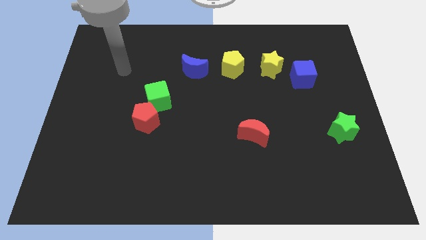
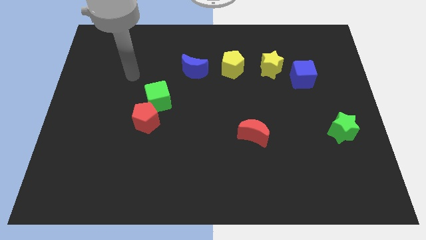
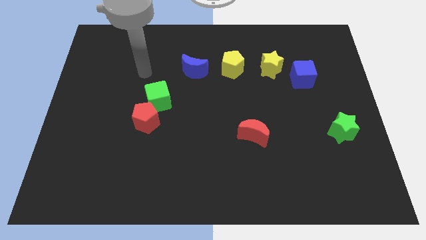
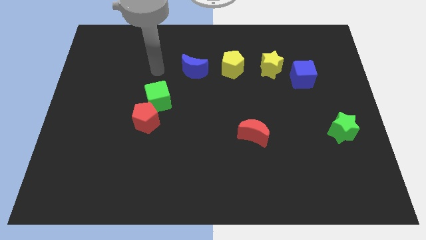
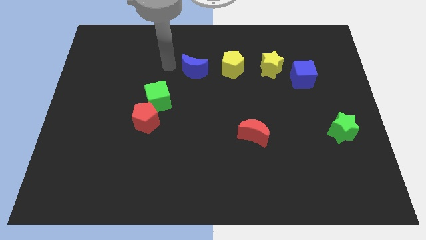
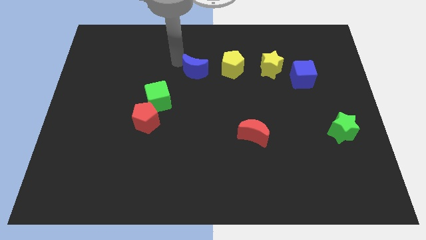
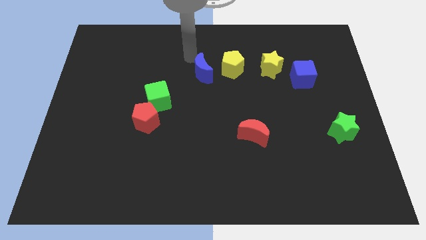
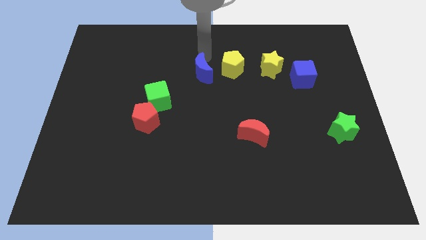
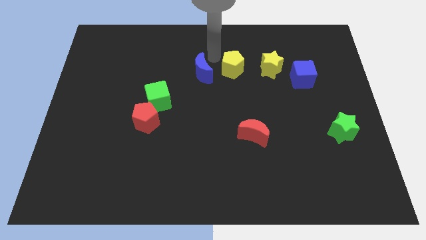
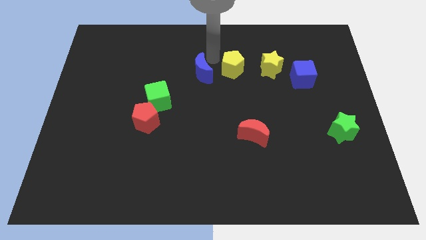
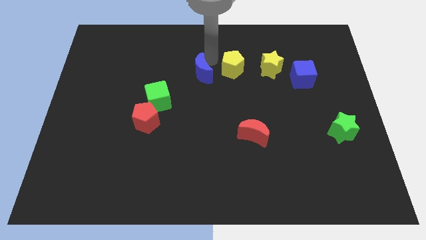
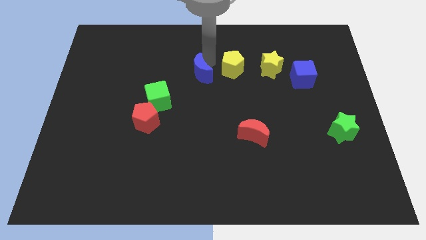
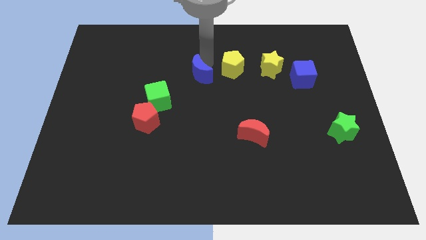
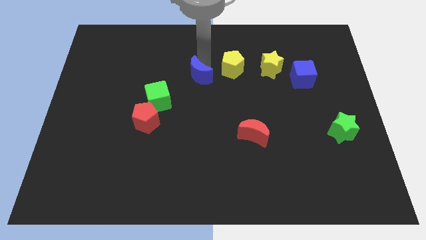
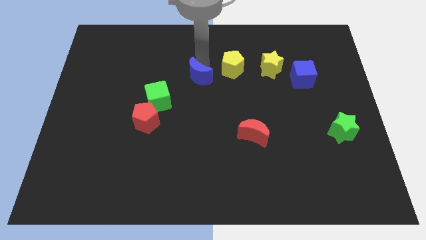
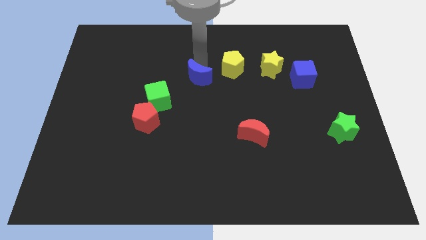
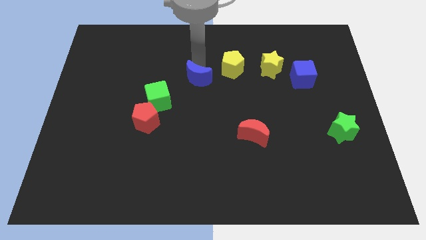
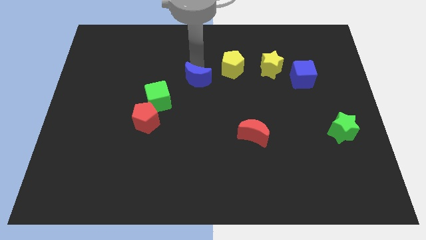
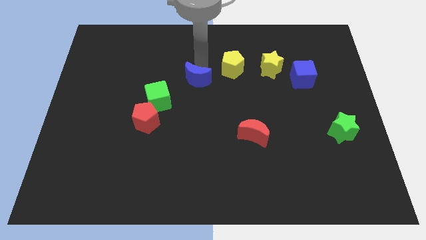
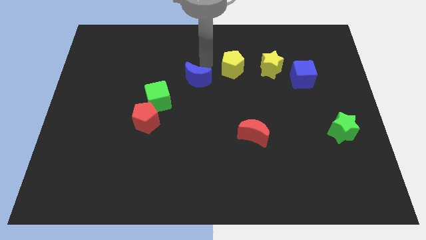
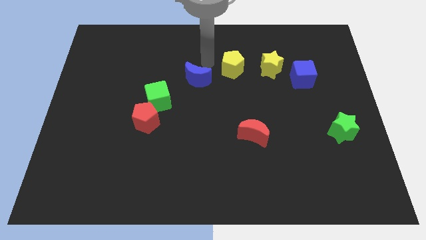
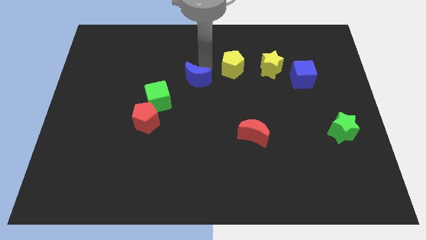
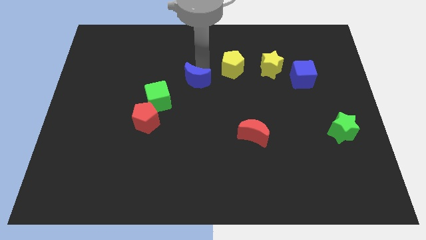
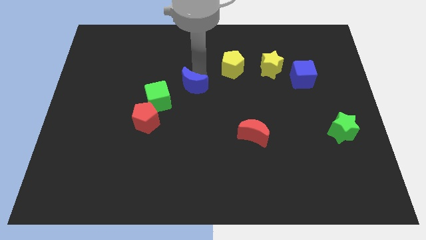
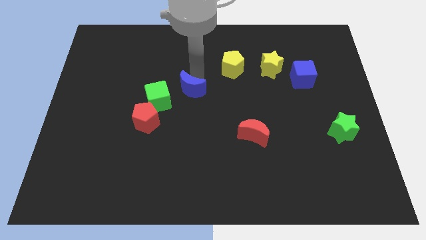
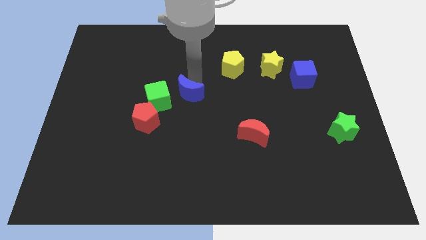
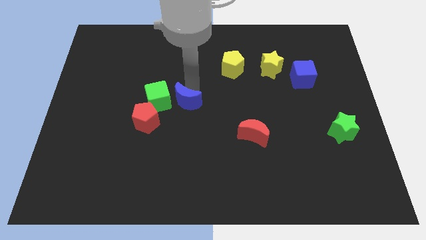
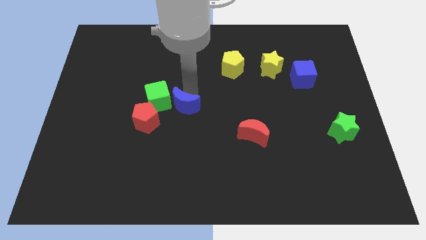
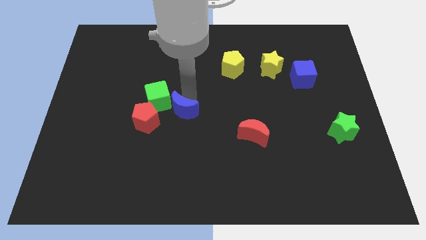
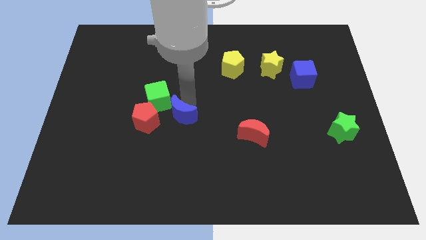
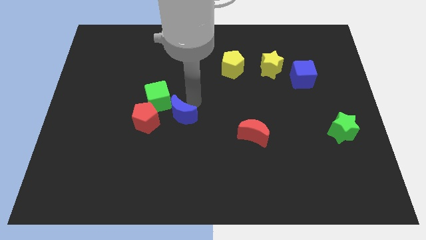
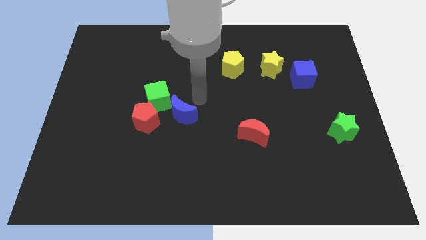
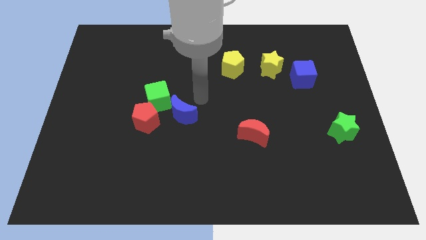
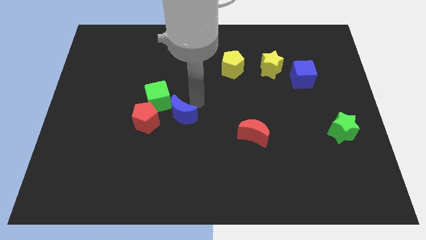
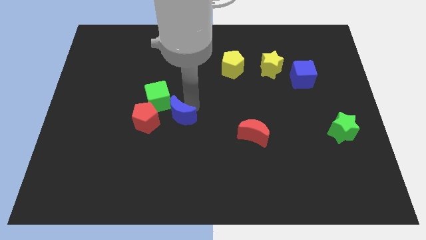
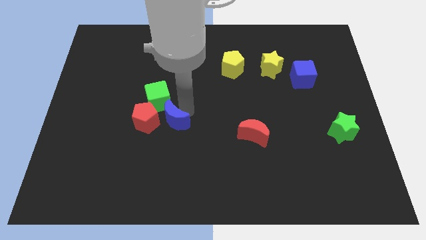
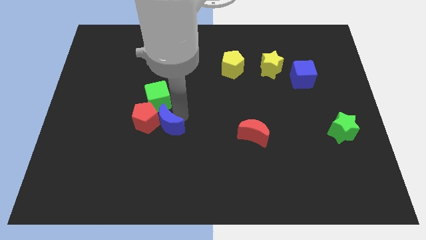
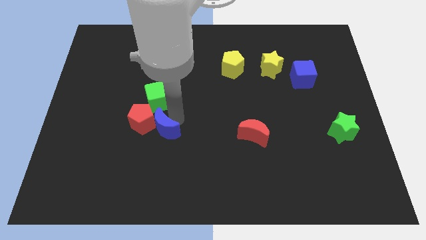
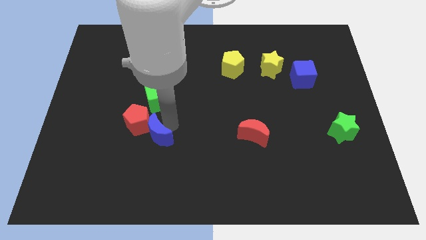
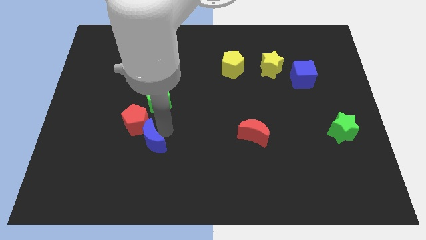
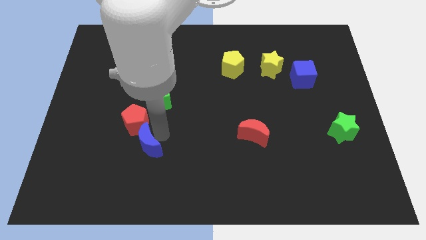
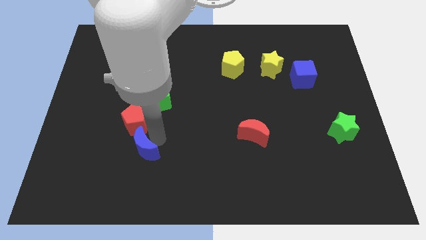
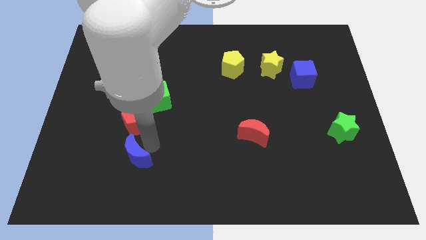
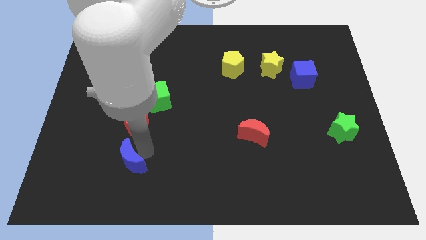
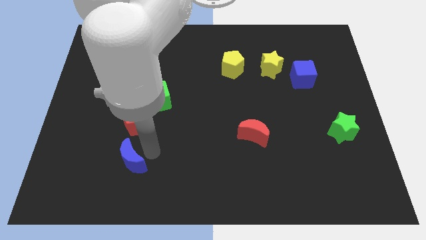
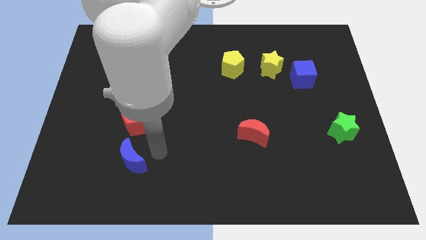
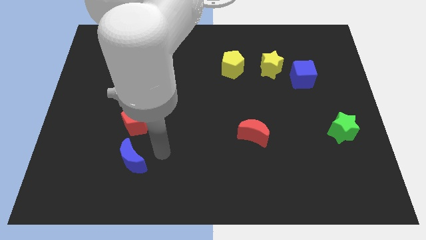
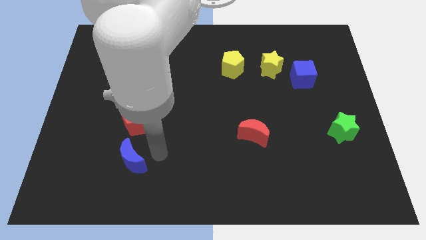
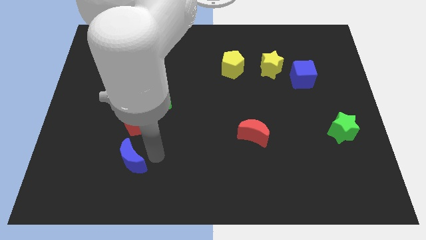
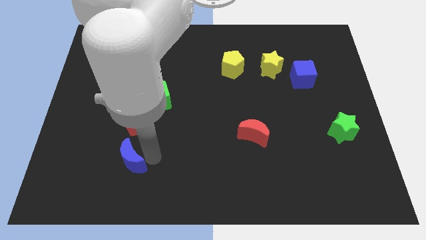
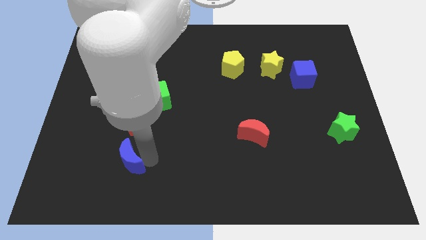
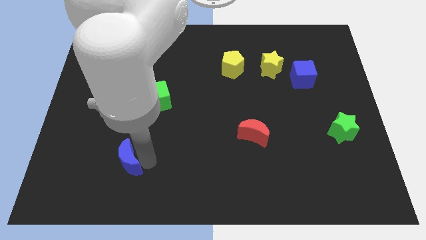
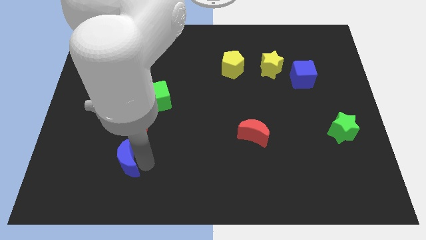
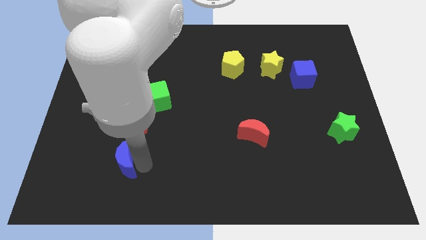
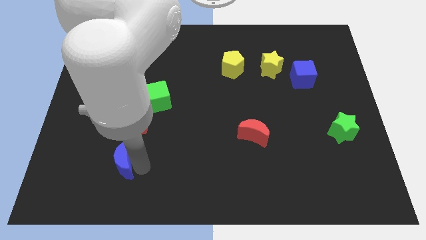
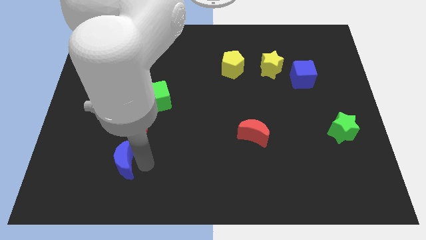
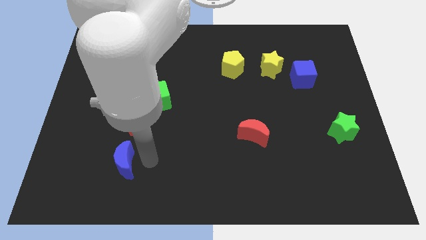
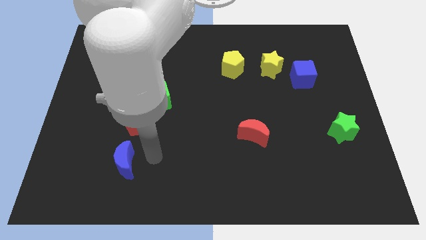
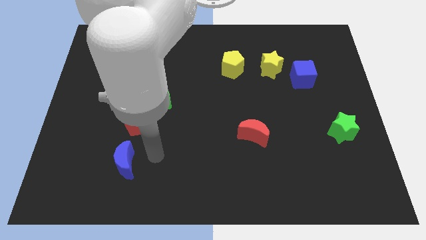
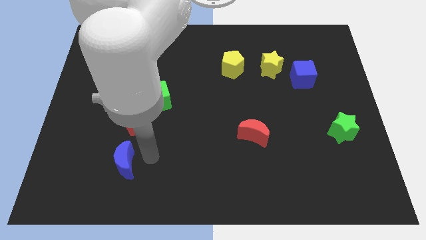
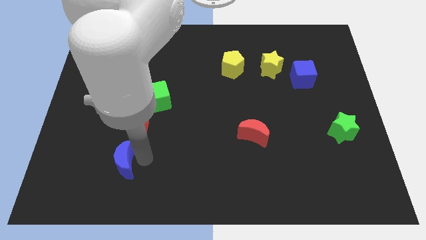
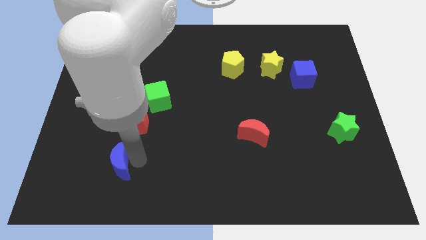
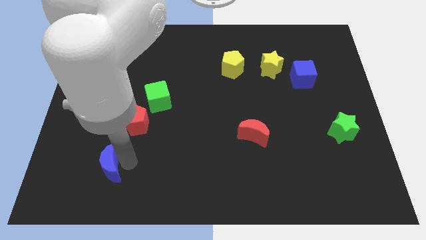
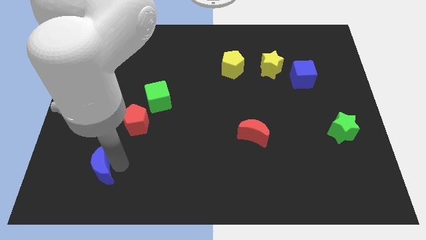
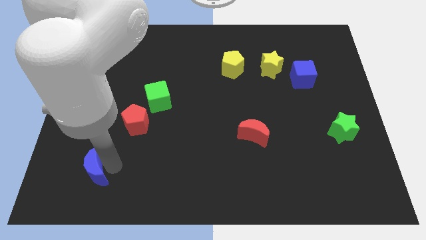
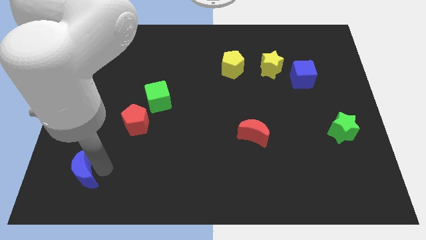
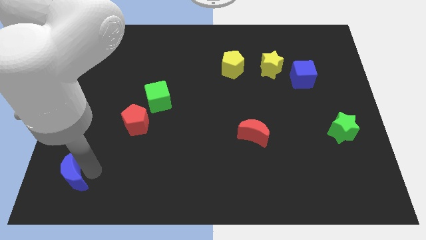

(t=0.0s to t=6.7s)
push the blue moon to the bottom left corner

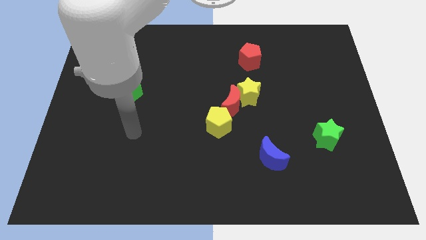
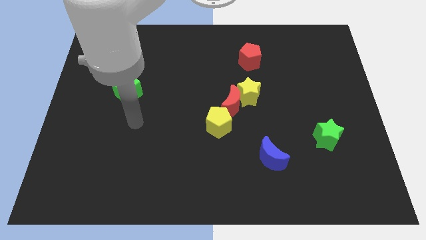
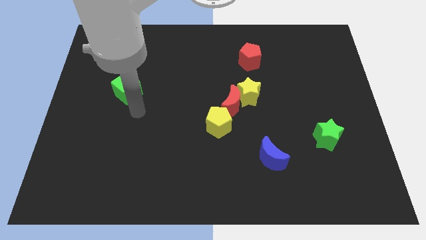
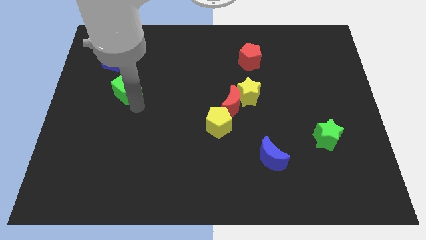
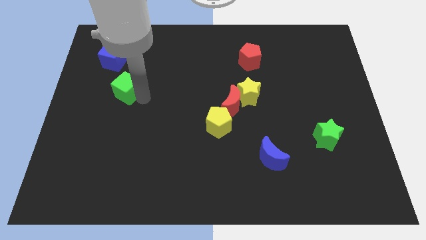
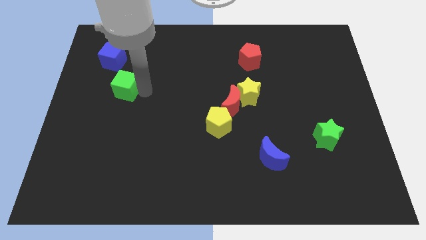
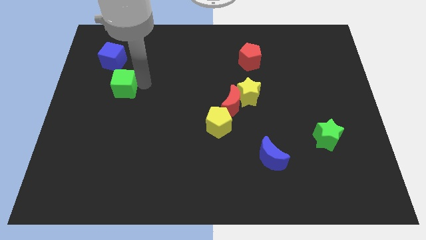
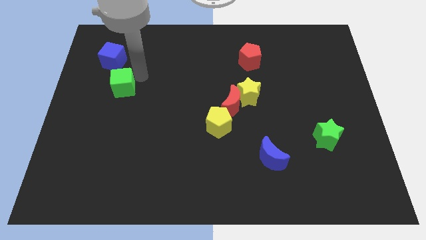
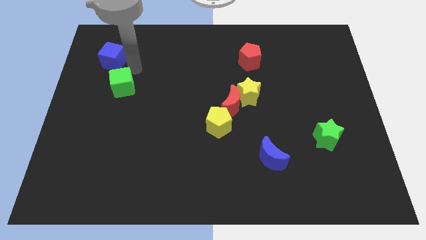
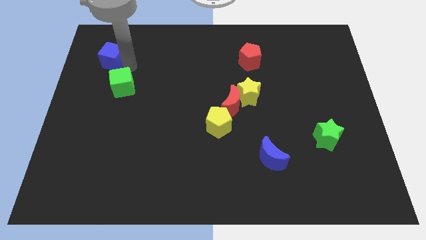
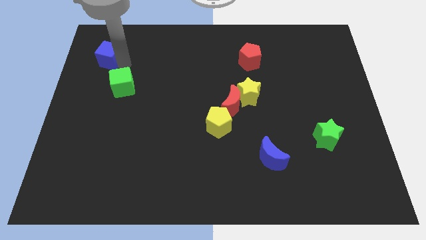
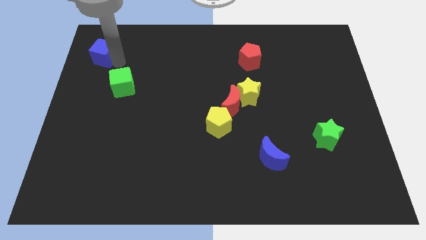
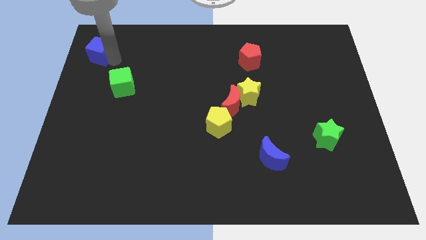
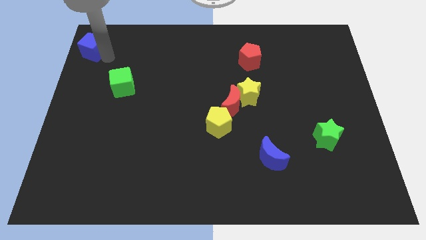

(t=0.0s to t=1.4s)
push the blue cube to the top left corner
